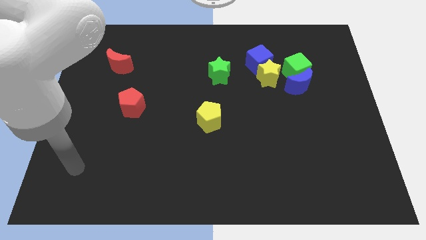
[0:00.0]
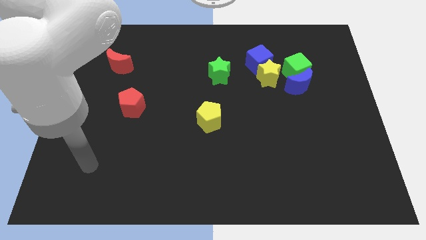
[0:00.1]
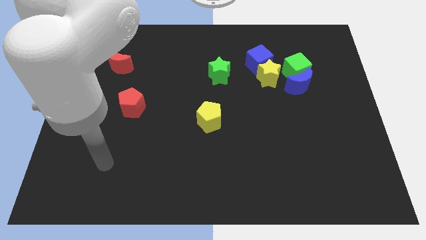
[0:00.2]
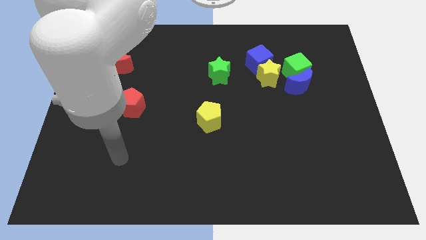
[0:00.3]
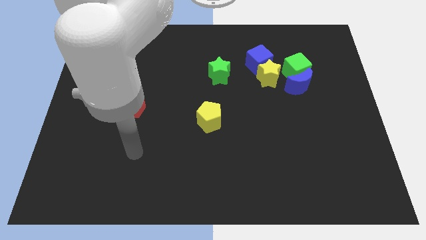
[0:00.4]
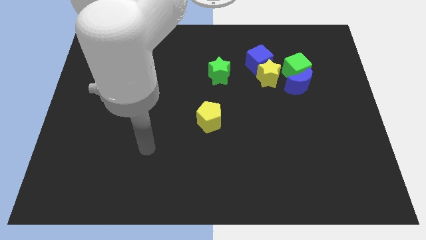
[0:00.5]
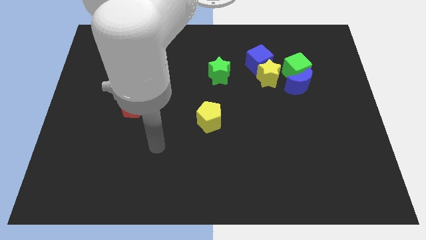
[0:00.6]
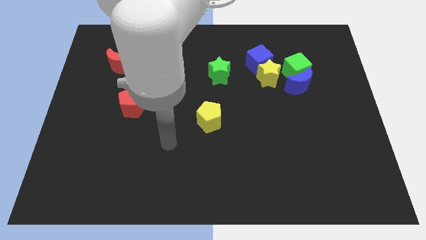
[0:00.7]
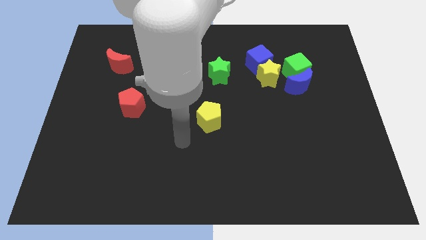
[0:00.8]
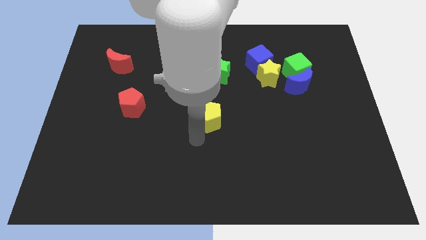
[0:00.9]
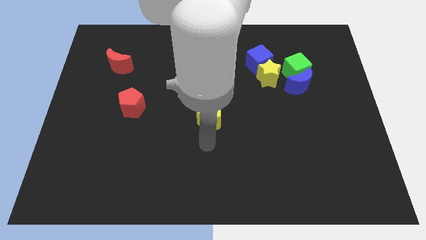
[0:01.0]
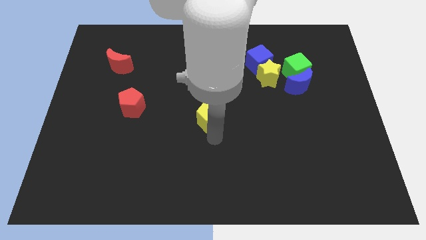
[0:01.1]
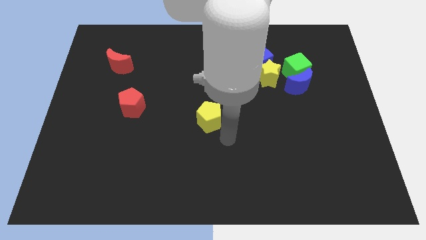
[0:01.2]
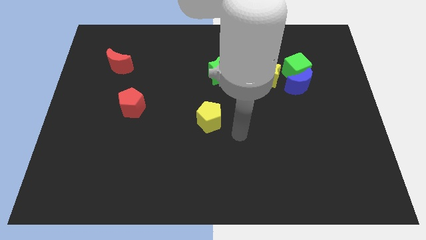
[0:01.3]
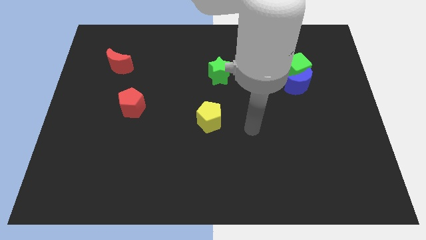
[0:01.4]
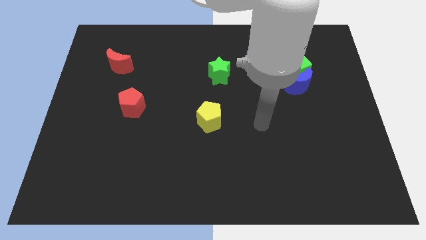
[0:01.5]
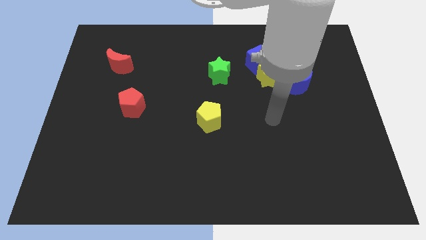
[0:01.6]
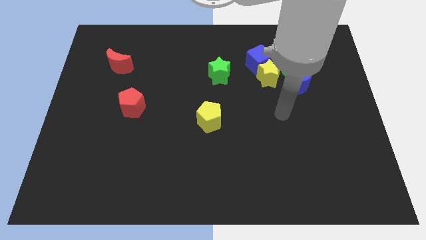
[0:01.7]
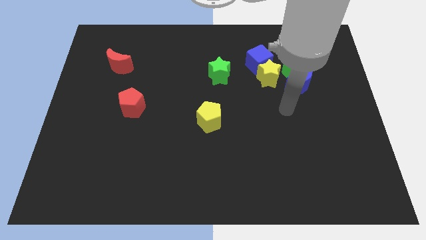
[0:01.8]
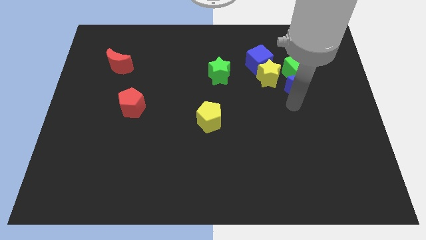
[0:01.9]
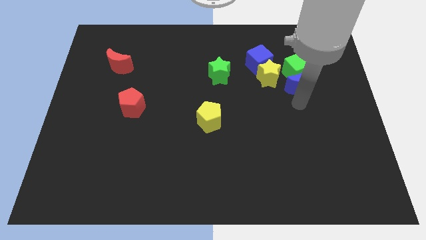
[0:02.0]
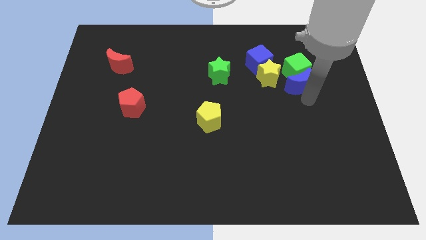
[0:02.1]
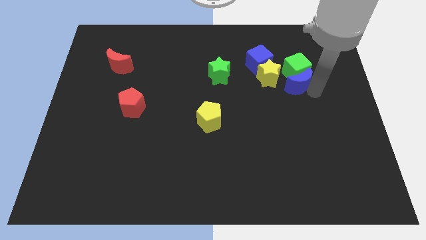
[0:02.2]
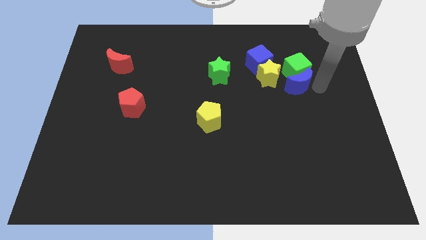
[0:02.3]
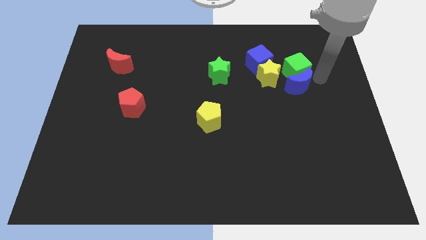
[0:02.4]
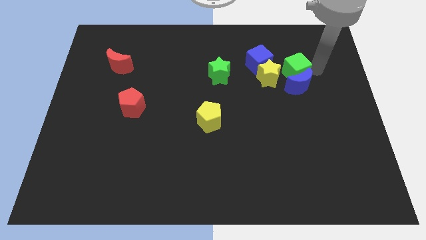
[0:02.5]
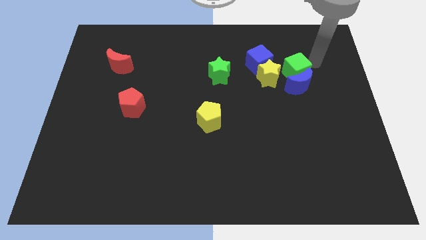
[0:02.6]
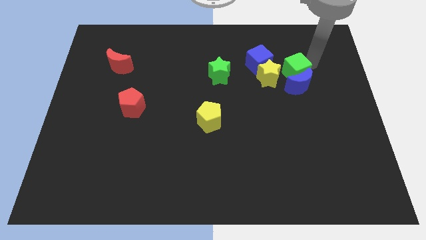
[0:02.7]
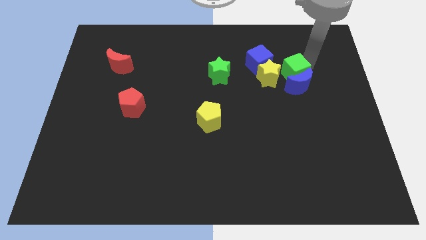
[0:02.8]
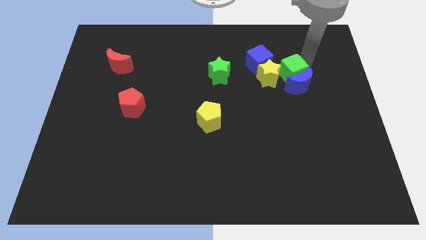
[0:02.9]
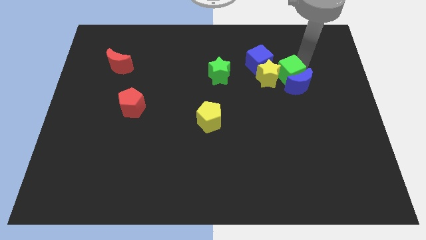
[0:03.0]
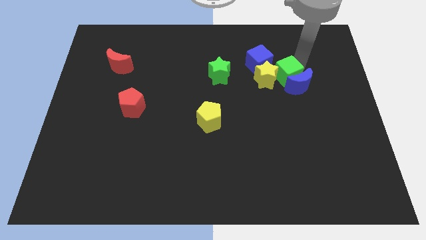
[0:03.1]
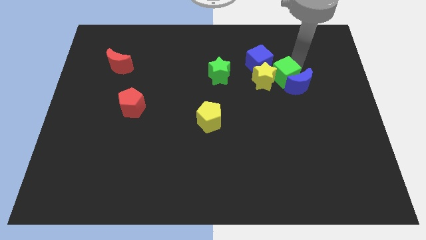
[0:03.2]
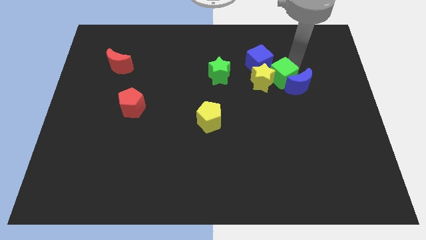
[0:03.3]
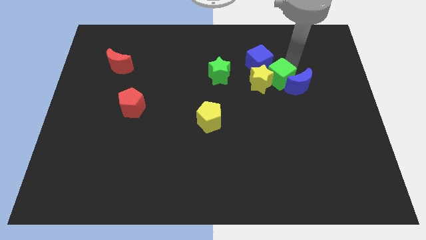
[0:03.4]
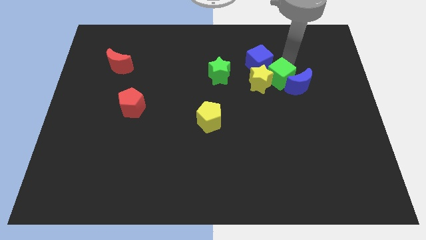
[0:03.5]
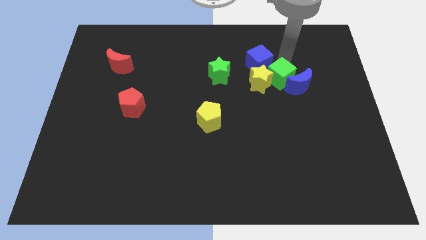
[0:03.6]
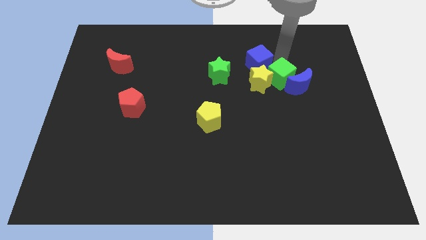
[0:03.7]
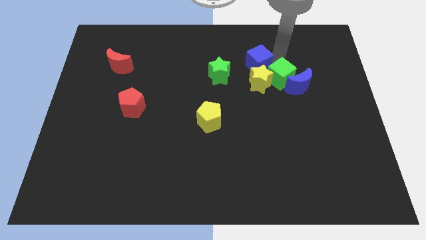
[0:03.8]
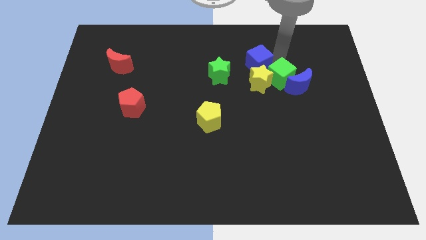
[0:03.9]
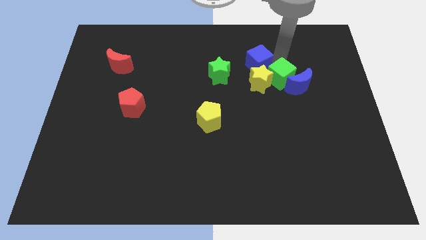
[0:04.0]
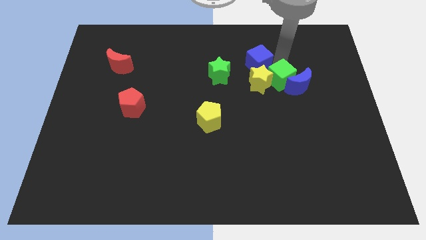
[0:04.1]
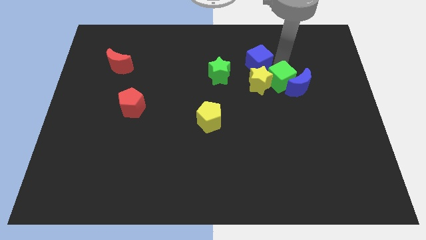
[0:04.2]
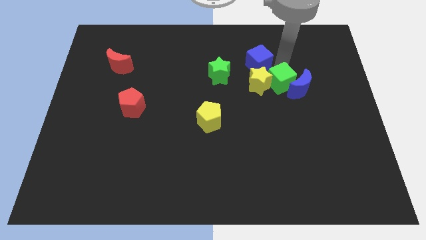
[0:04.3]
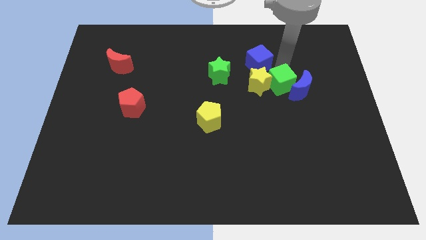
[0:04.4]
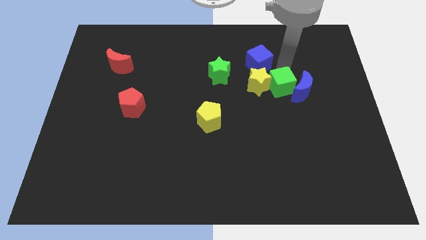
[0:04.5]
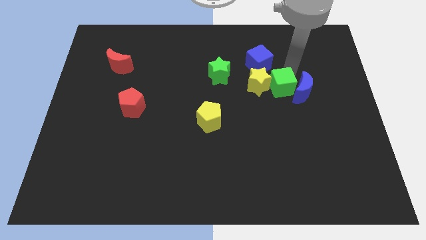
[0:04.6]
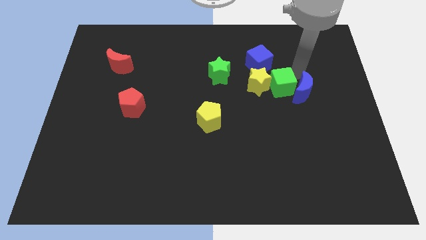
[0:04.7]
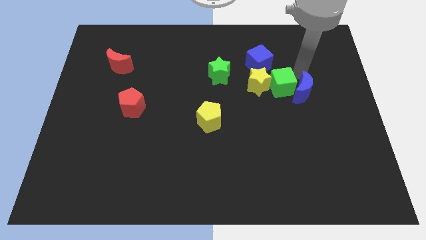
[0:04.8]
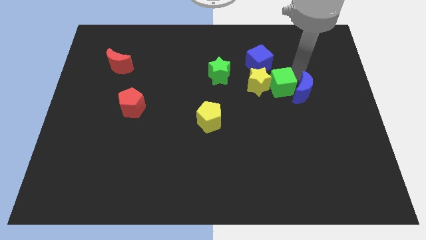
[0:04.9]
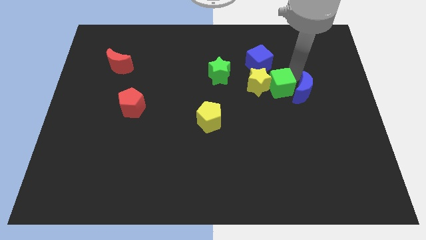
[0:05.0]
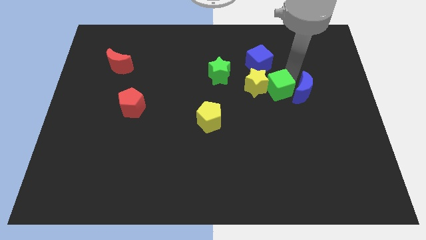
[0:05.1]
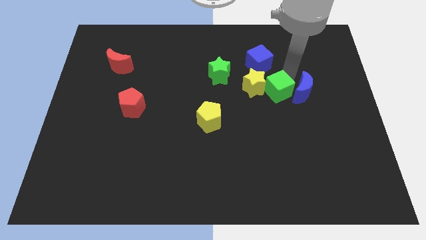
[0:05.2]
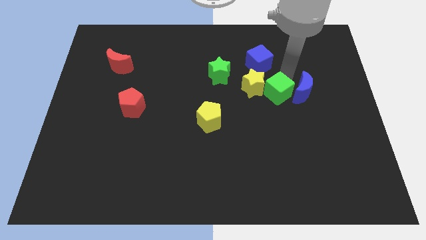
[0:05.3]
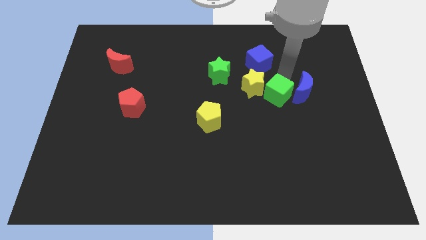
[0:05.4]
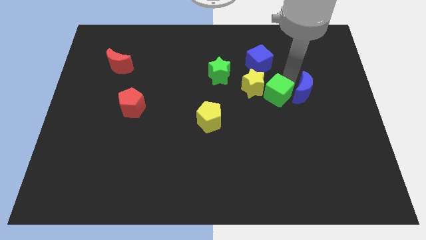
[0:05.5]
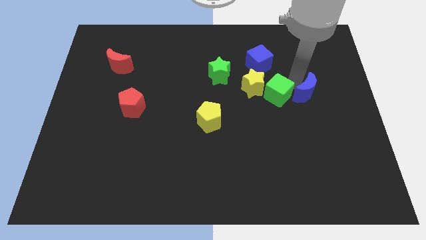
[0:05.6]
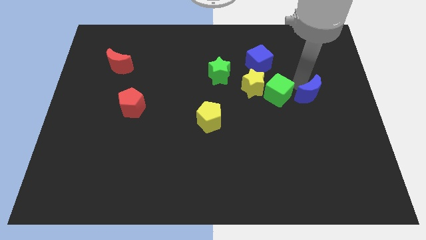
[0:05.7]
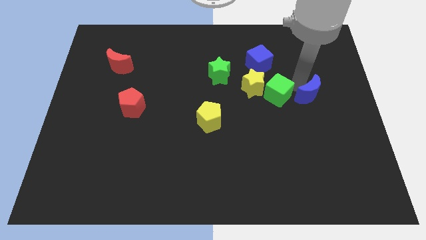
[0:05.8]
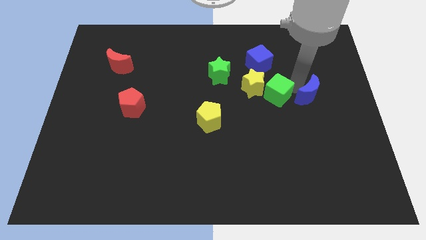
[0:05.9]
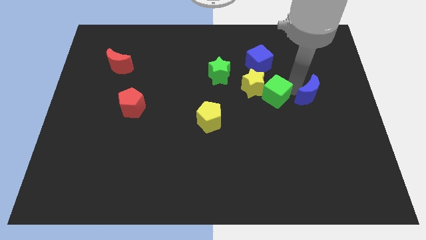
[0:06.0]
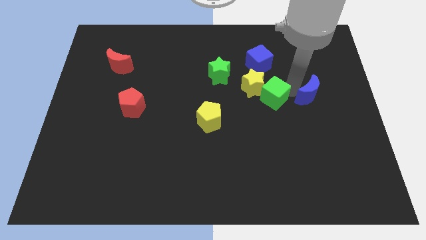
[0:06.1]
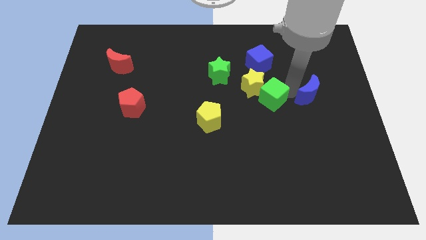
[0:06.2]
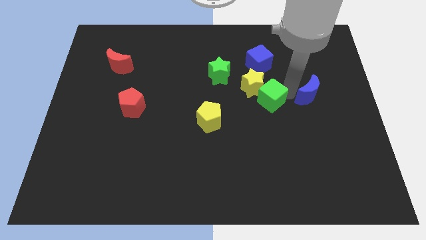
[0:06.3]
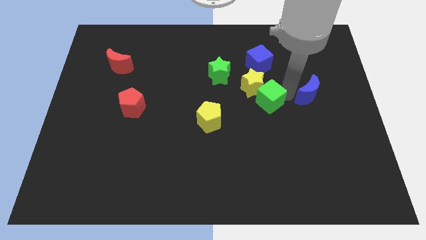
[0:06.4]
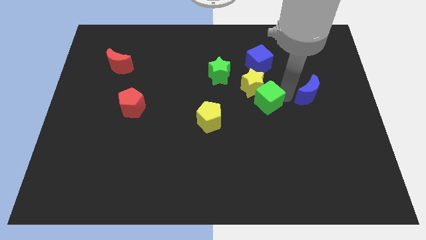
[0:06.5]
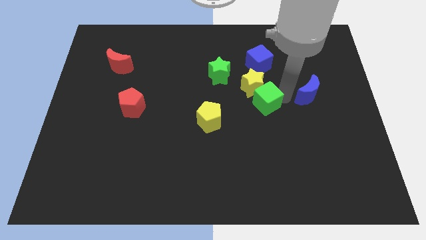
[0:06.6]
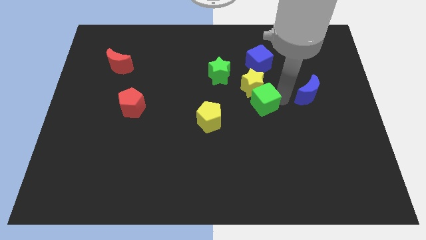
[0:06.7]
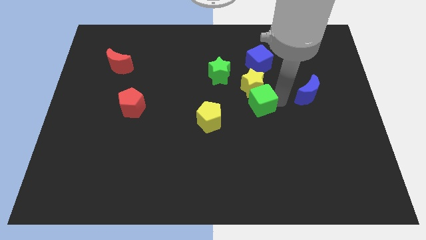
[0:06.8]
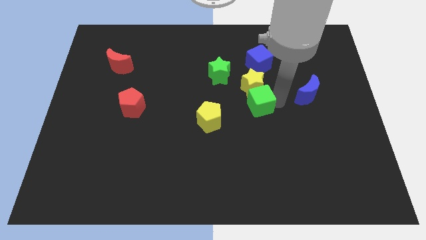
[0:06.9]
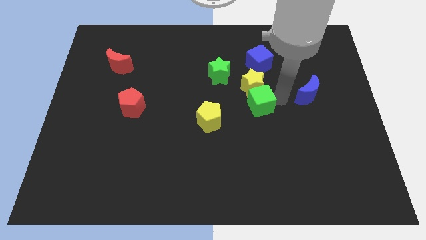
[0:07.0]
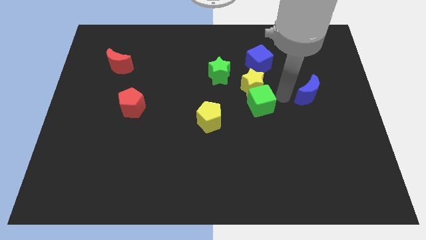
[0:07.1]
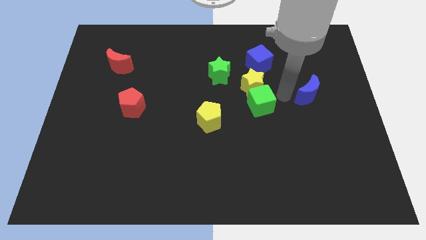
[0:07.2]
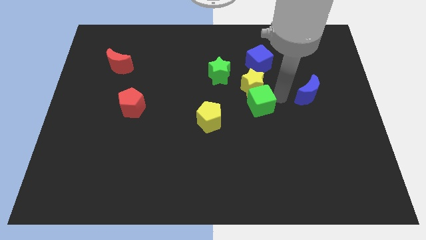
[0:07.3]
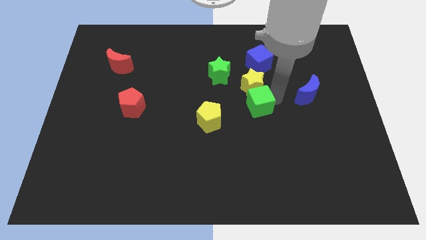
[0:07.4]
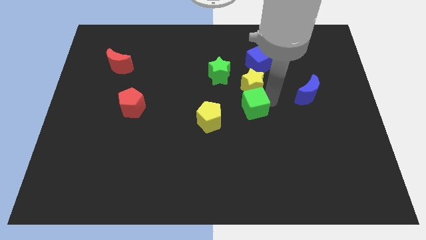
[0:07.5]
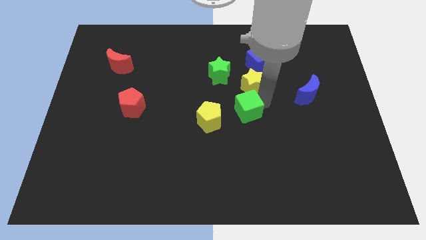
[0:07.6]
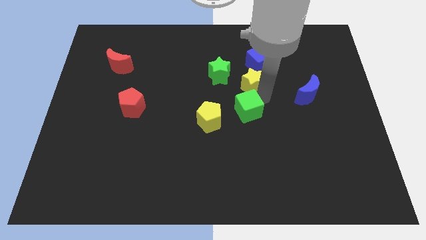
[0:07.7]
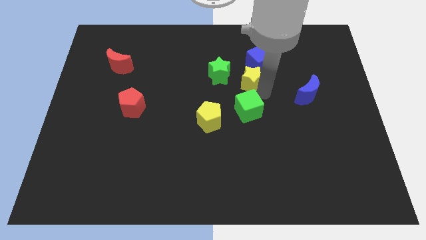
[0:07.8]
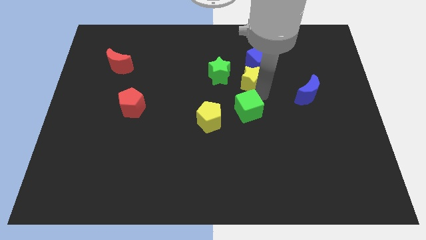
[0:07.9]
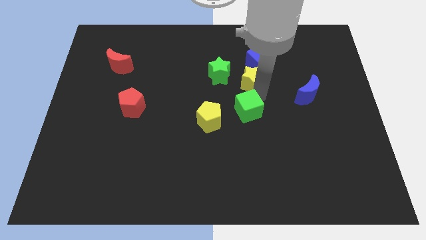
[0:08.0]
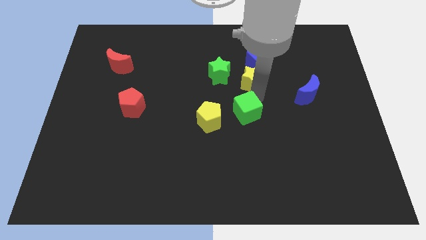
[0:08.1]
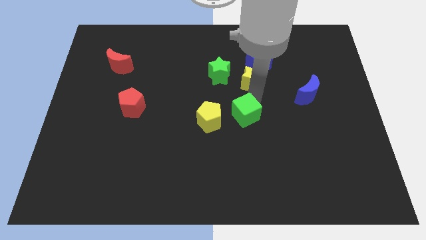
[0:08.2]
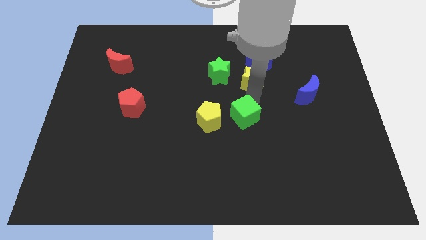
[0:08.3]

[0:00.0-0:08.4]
push the green cube diagonally down and left
